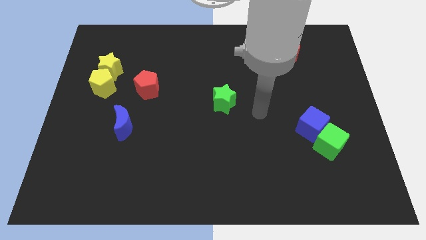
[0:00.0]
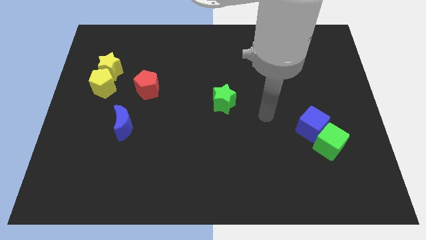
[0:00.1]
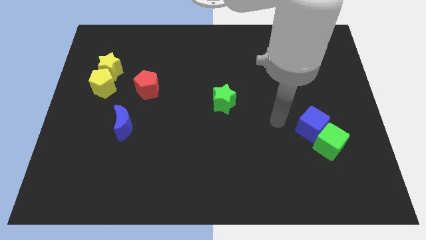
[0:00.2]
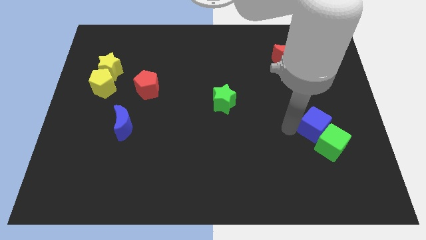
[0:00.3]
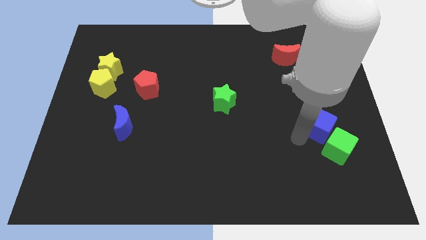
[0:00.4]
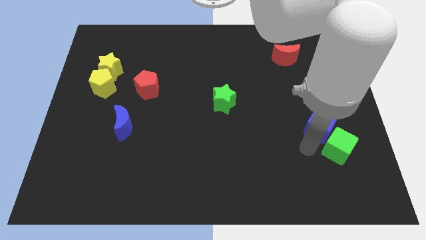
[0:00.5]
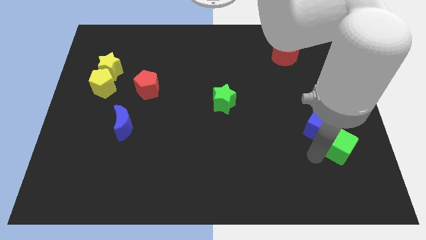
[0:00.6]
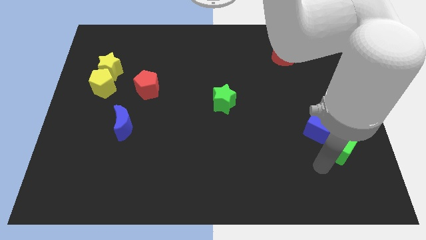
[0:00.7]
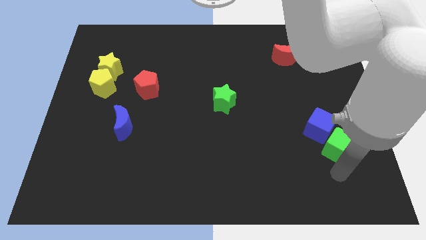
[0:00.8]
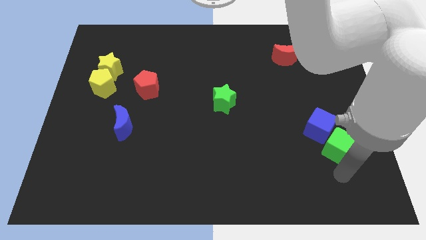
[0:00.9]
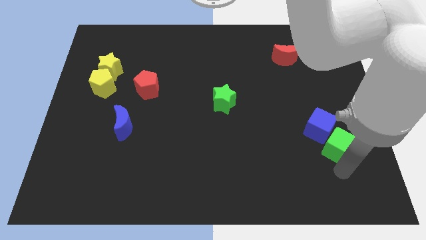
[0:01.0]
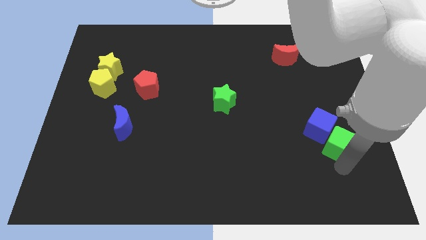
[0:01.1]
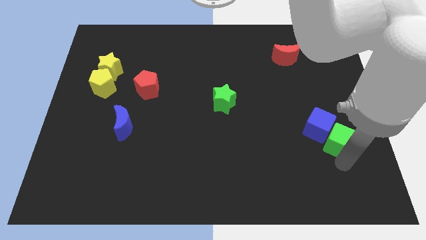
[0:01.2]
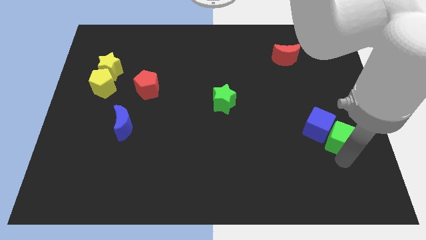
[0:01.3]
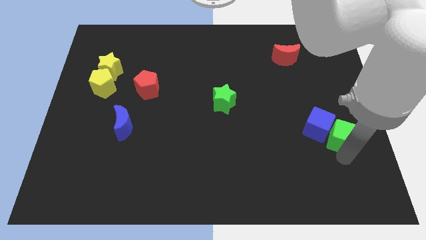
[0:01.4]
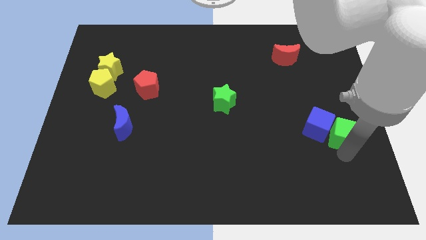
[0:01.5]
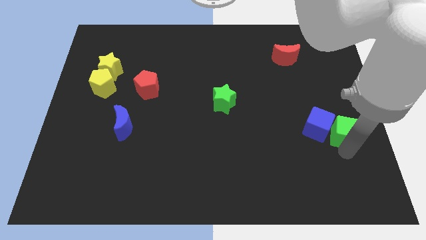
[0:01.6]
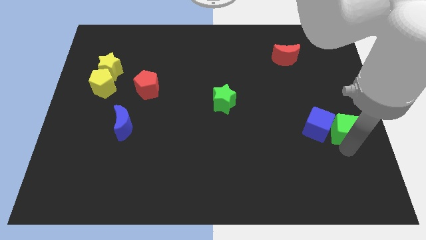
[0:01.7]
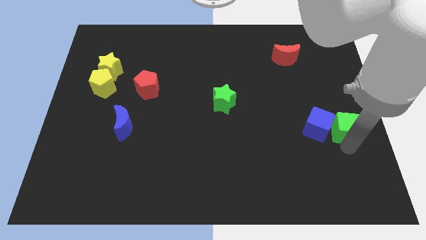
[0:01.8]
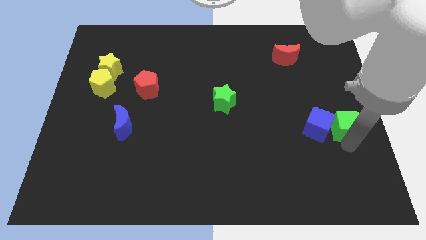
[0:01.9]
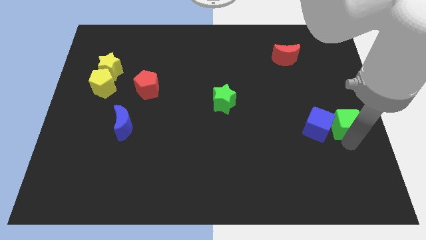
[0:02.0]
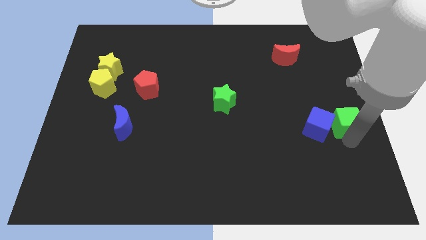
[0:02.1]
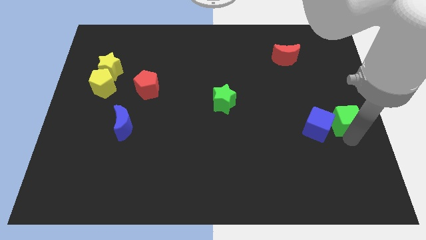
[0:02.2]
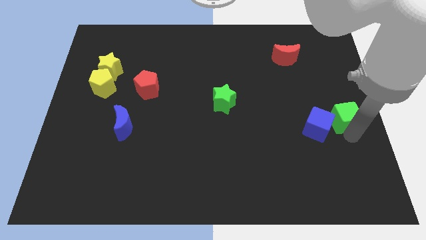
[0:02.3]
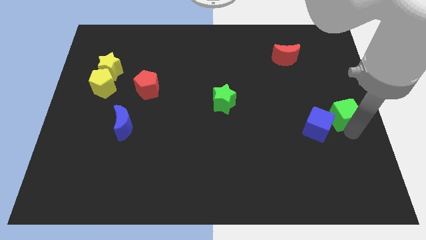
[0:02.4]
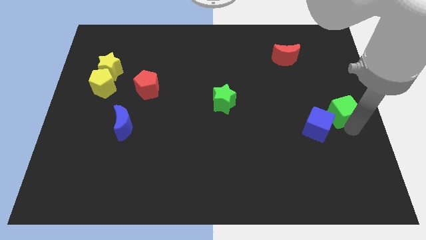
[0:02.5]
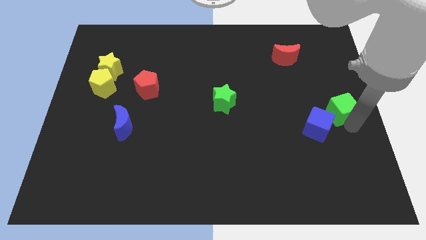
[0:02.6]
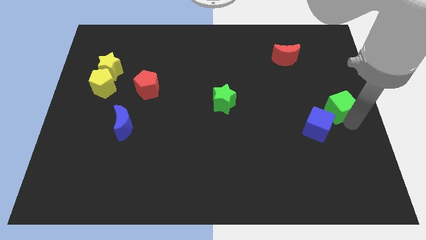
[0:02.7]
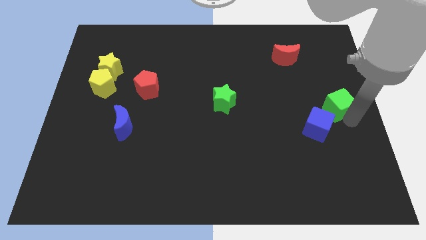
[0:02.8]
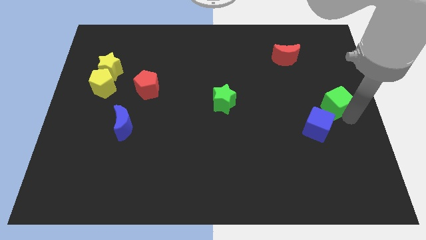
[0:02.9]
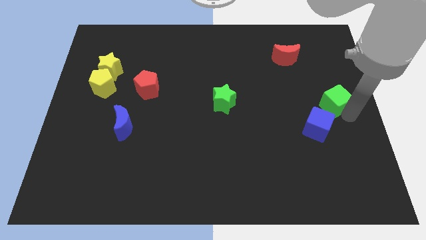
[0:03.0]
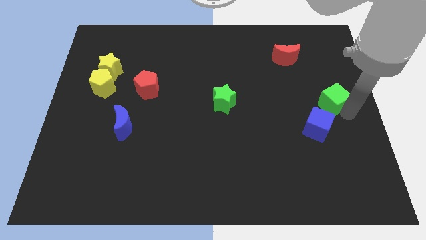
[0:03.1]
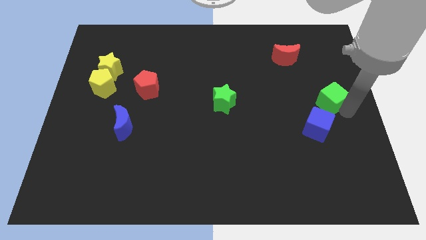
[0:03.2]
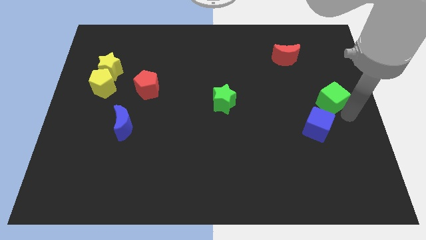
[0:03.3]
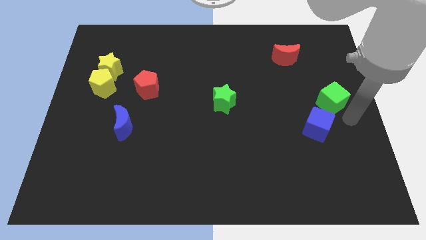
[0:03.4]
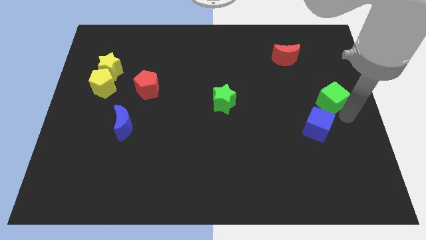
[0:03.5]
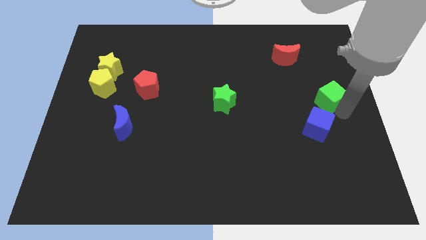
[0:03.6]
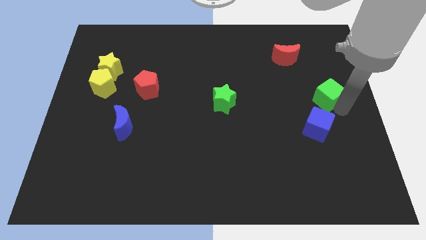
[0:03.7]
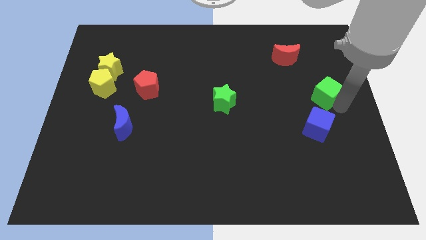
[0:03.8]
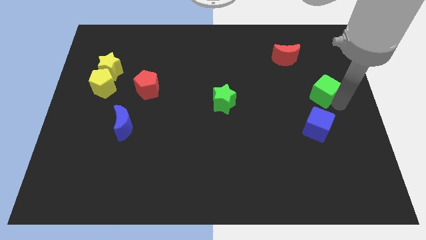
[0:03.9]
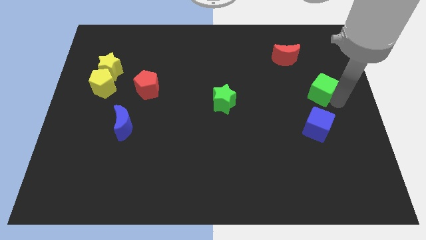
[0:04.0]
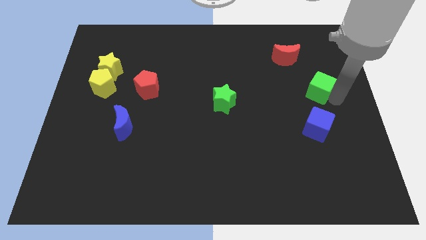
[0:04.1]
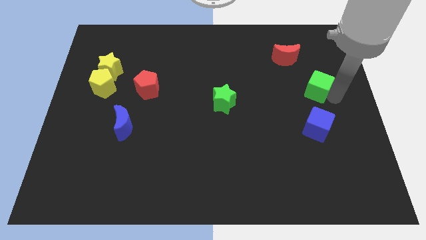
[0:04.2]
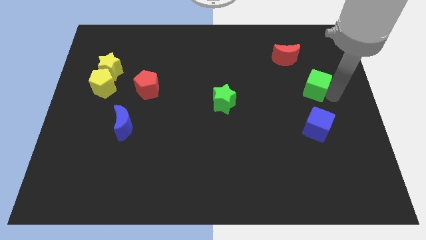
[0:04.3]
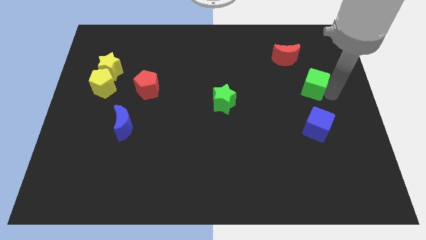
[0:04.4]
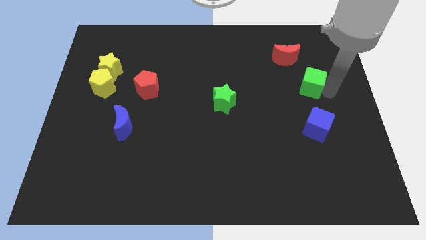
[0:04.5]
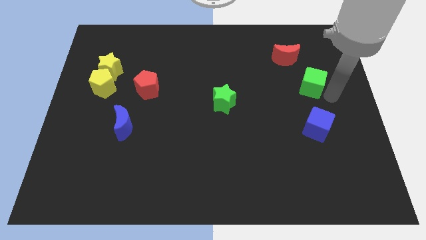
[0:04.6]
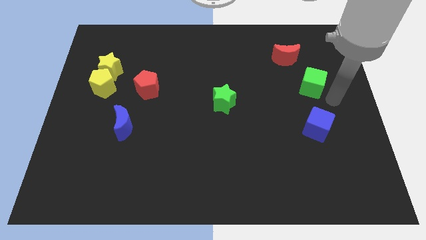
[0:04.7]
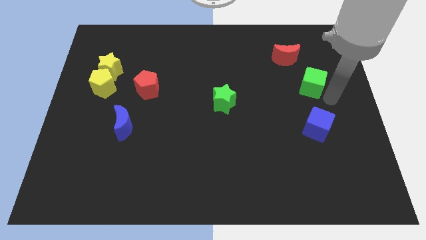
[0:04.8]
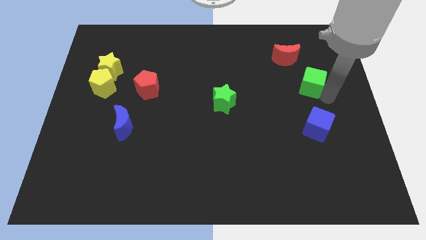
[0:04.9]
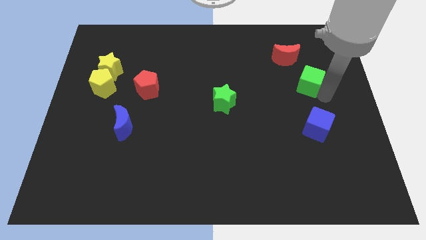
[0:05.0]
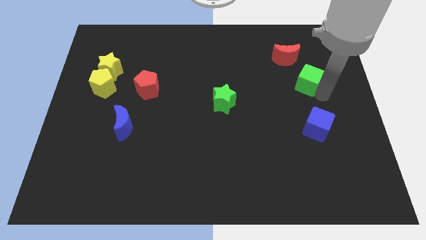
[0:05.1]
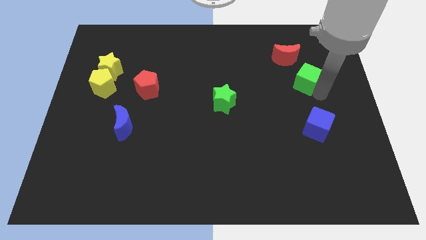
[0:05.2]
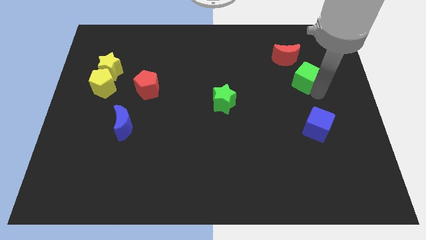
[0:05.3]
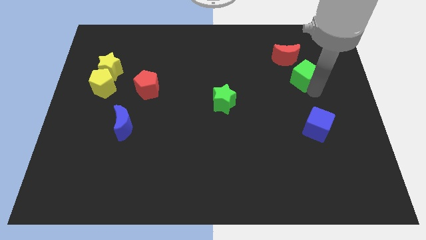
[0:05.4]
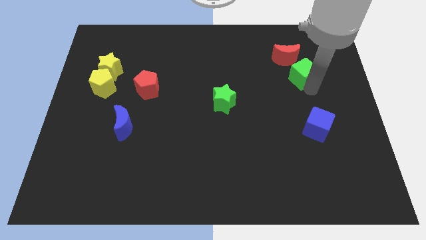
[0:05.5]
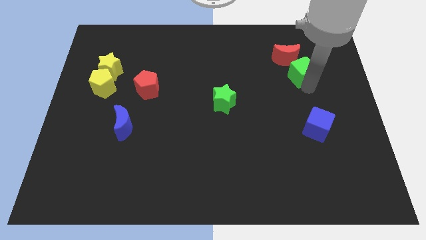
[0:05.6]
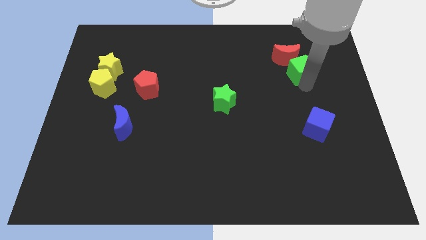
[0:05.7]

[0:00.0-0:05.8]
put the green cube next to the red moon

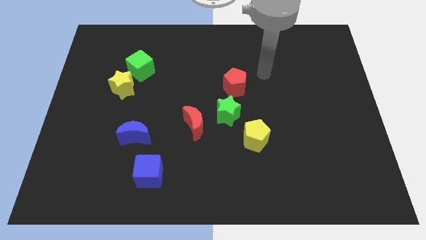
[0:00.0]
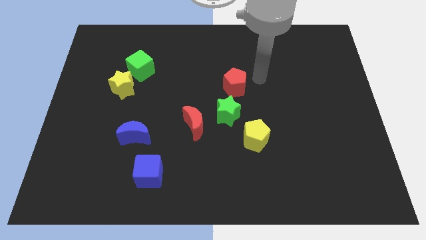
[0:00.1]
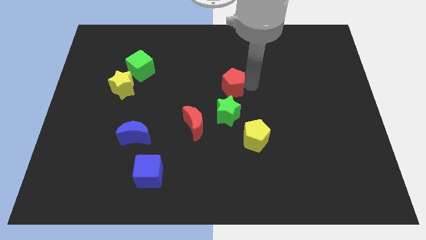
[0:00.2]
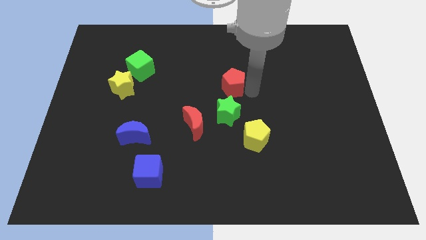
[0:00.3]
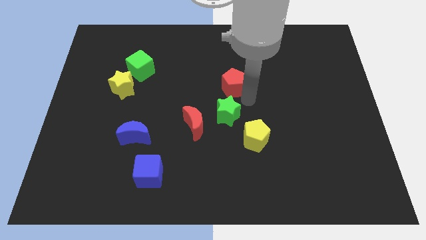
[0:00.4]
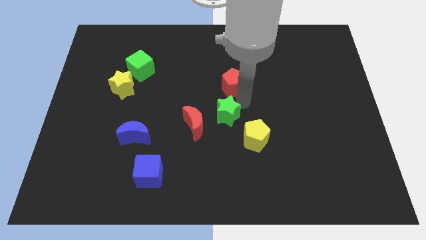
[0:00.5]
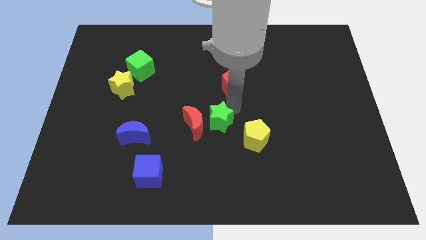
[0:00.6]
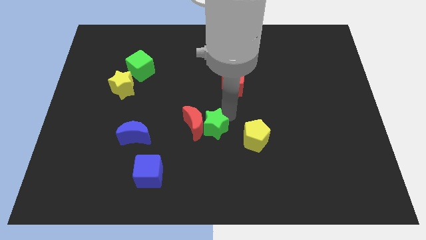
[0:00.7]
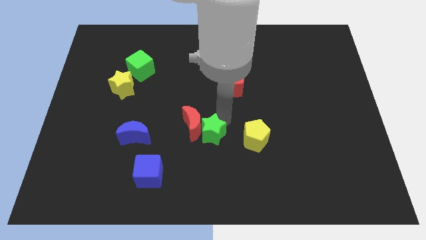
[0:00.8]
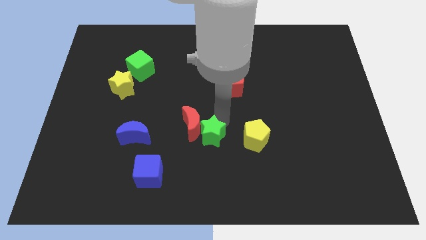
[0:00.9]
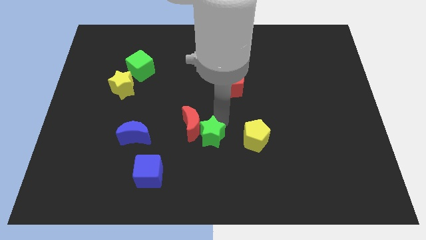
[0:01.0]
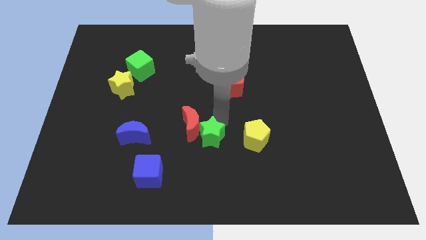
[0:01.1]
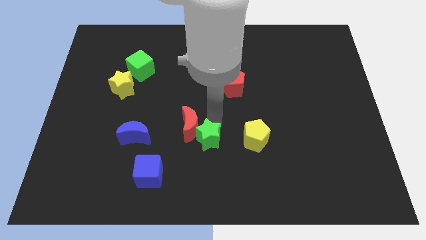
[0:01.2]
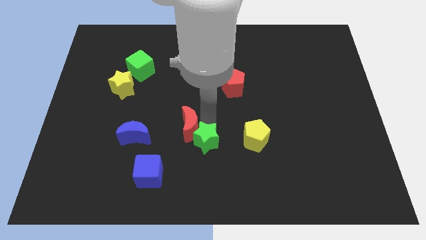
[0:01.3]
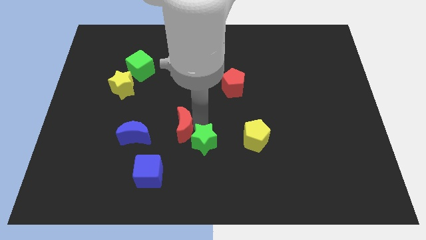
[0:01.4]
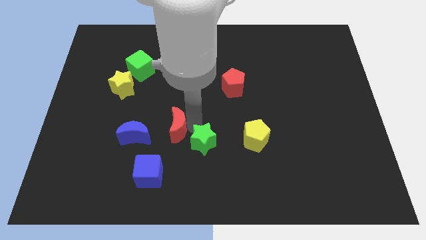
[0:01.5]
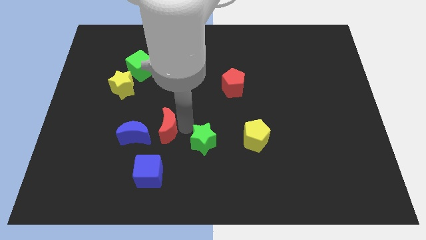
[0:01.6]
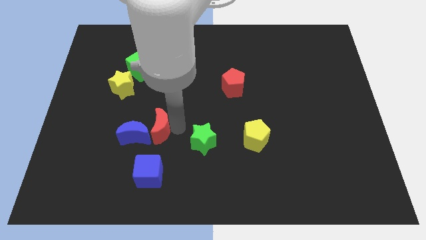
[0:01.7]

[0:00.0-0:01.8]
move the red moon next to the blue moon
